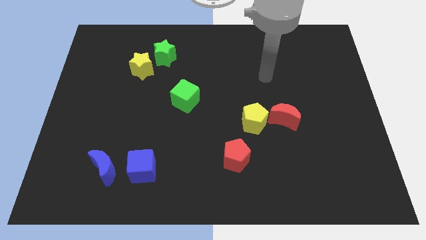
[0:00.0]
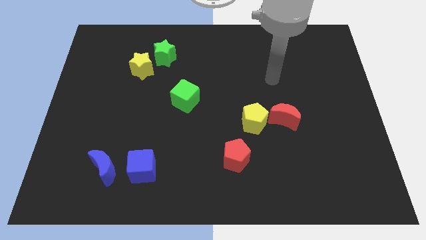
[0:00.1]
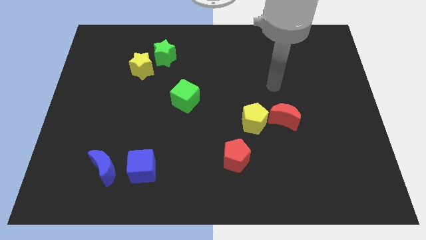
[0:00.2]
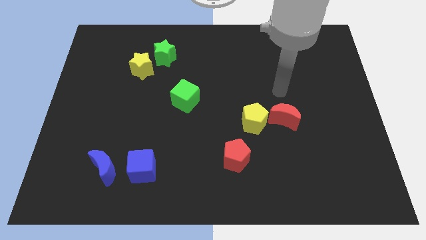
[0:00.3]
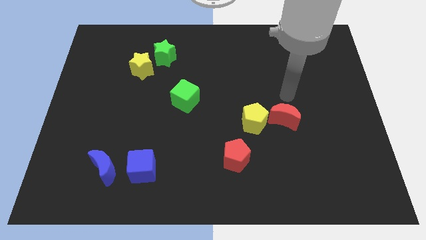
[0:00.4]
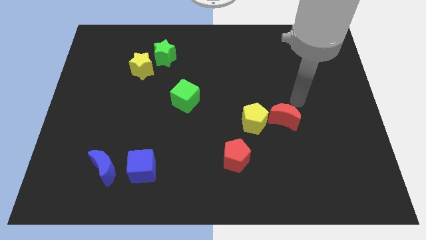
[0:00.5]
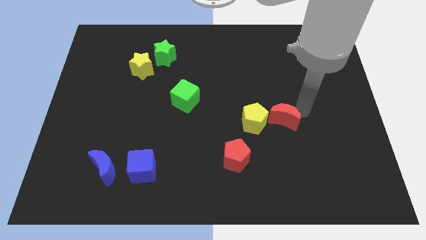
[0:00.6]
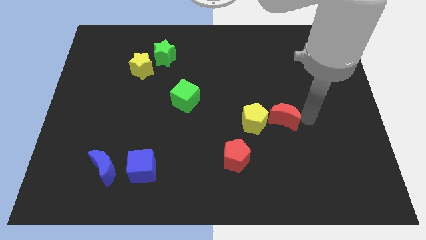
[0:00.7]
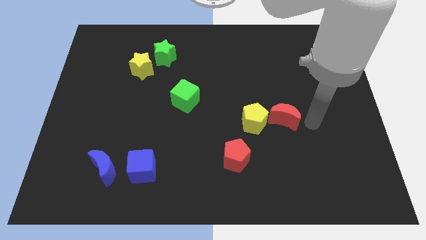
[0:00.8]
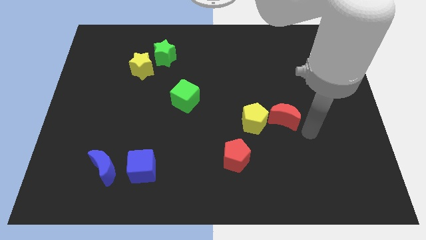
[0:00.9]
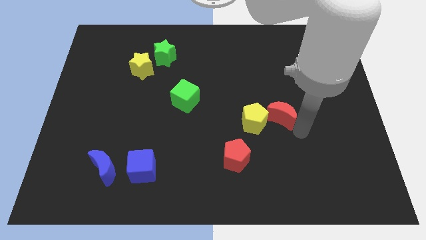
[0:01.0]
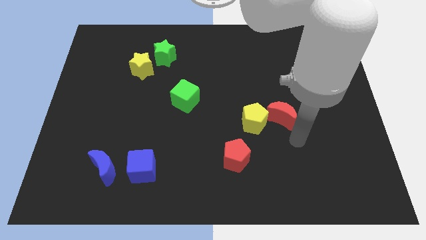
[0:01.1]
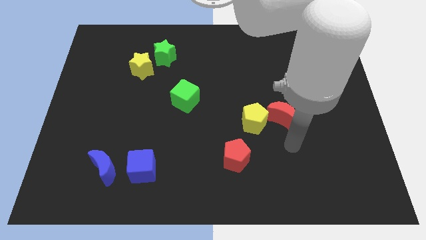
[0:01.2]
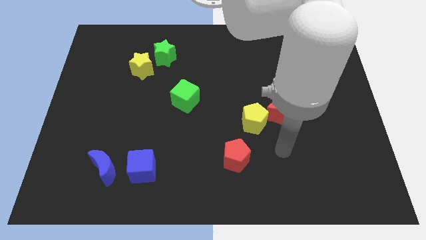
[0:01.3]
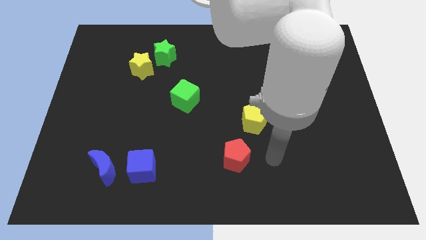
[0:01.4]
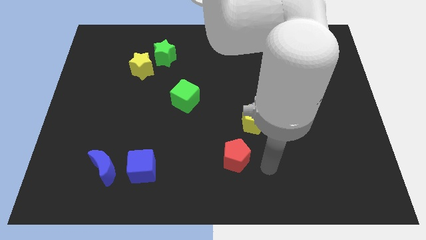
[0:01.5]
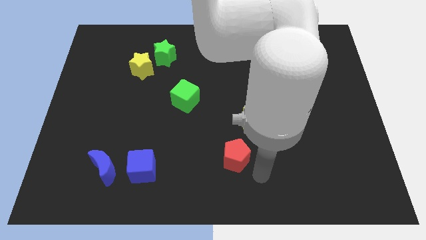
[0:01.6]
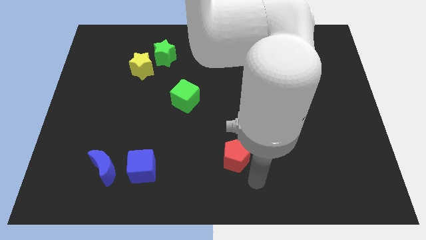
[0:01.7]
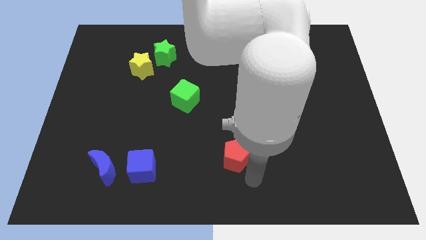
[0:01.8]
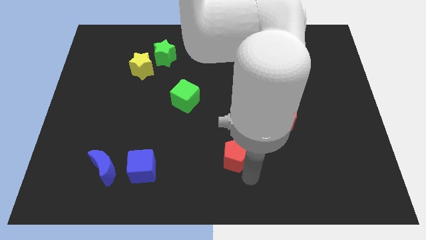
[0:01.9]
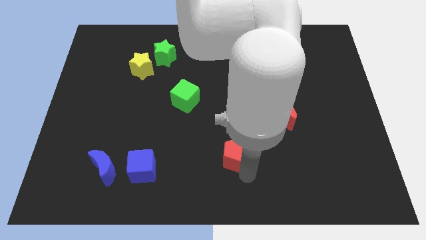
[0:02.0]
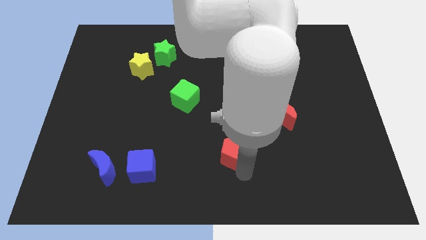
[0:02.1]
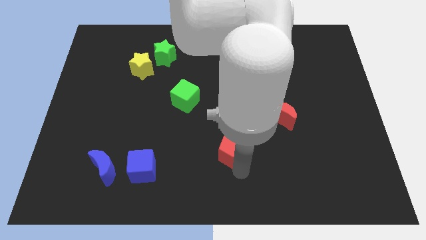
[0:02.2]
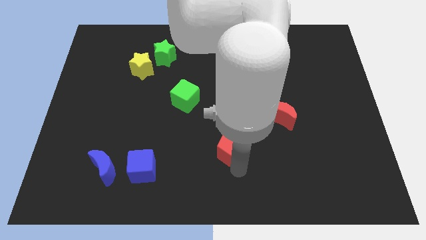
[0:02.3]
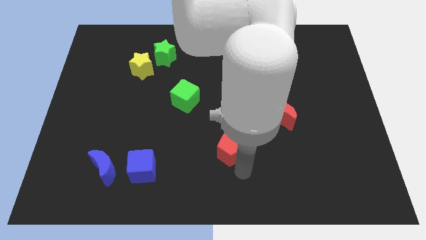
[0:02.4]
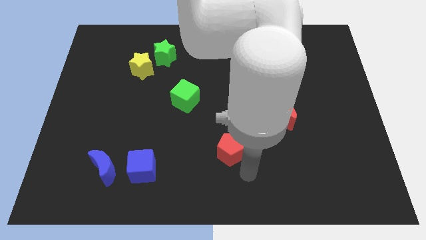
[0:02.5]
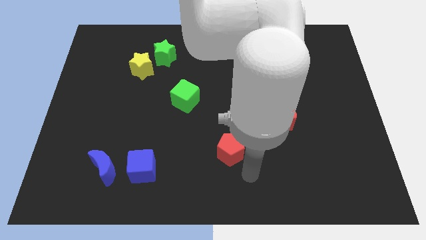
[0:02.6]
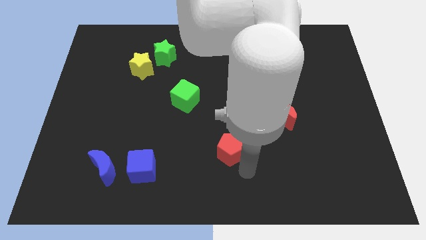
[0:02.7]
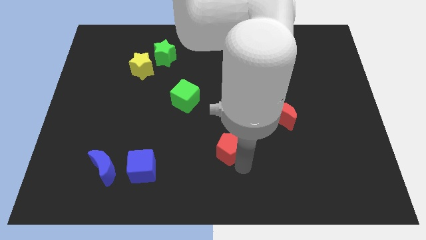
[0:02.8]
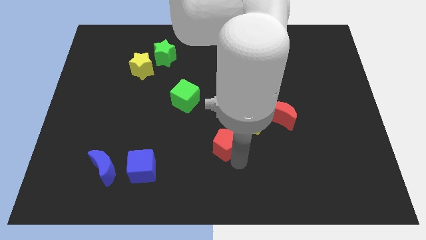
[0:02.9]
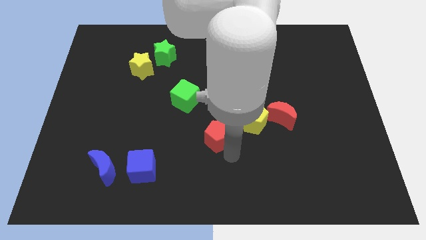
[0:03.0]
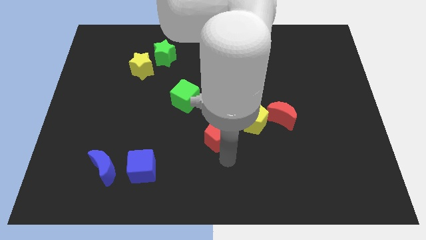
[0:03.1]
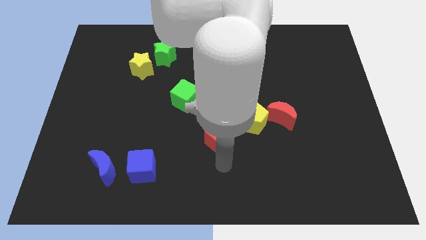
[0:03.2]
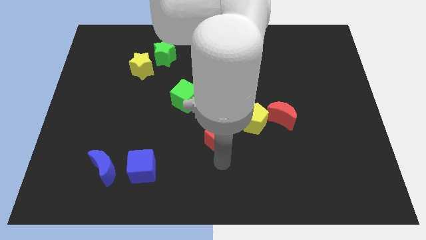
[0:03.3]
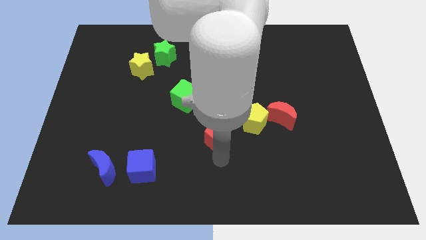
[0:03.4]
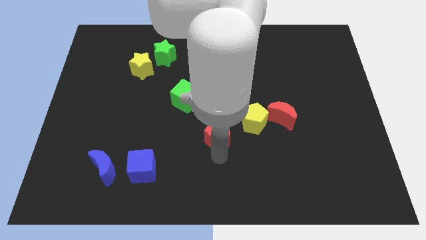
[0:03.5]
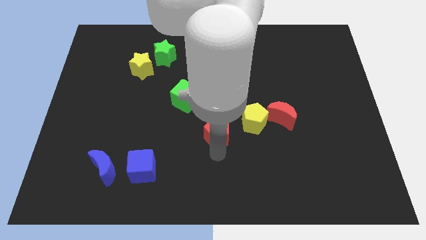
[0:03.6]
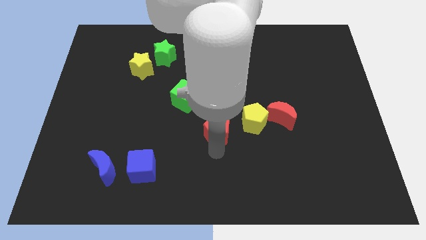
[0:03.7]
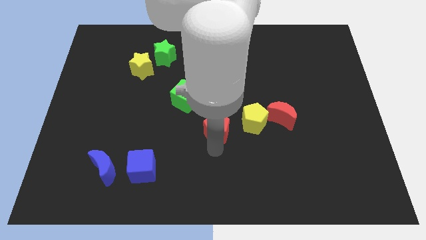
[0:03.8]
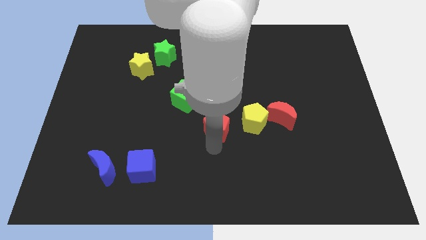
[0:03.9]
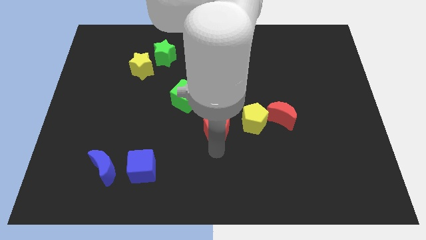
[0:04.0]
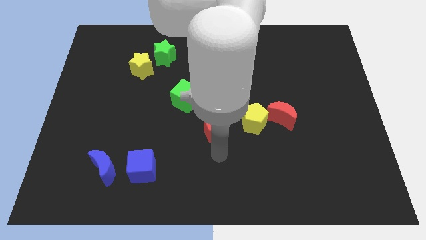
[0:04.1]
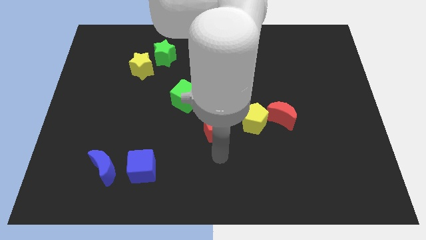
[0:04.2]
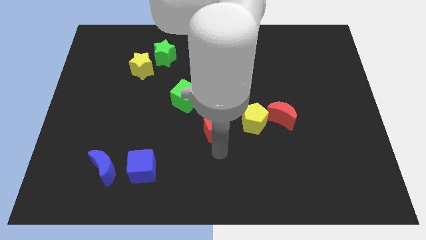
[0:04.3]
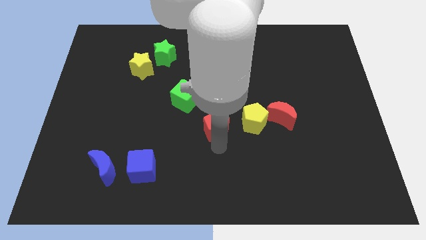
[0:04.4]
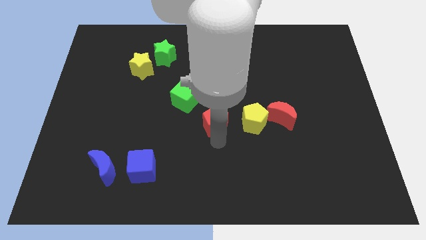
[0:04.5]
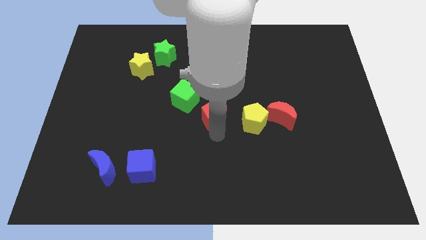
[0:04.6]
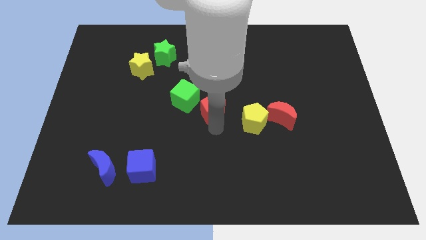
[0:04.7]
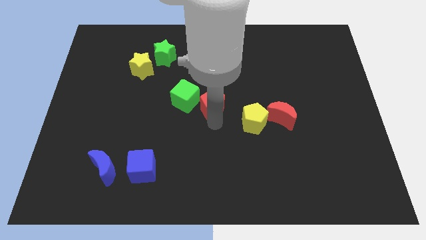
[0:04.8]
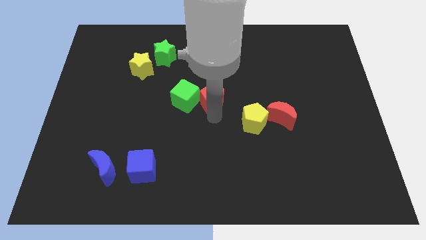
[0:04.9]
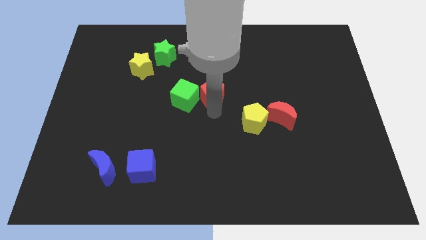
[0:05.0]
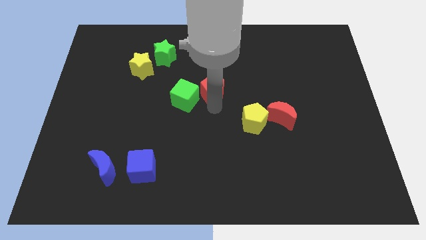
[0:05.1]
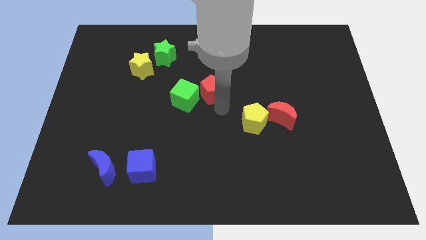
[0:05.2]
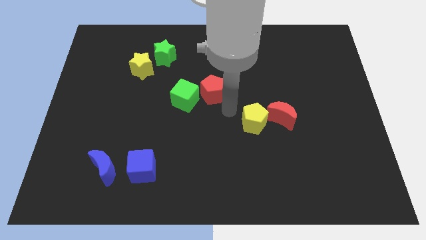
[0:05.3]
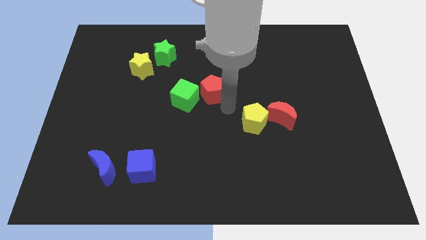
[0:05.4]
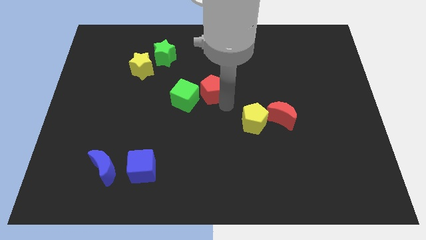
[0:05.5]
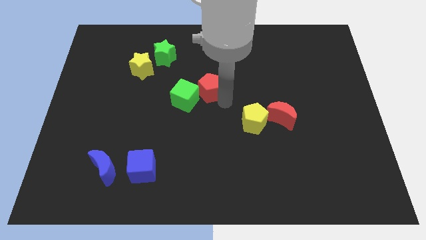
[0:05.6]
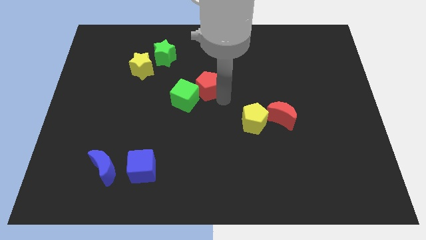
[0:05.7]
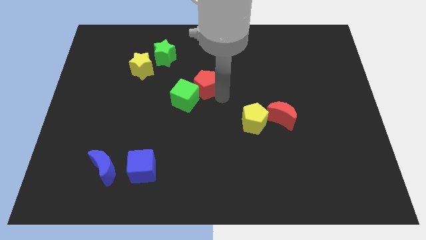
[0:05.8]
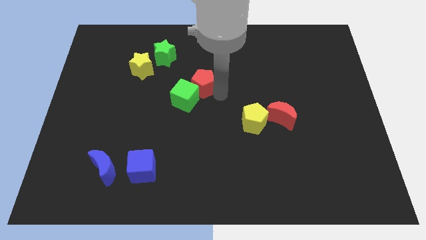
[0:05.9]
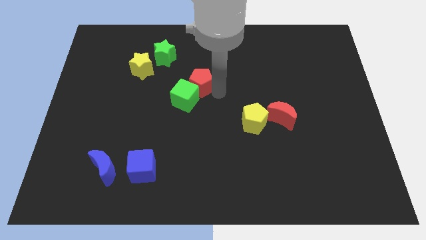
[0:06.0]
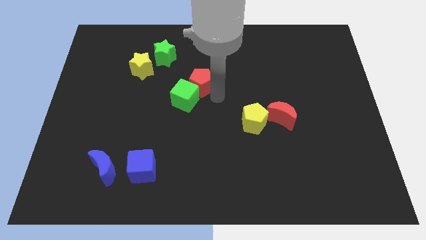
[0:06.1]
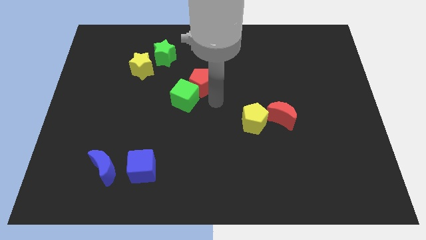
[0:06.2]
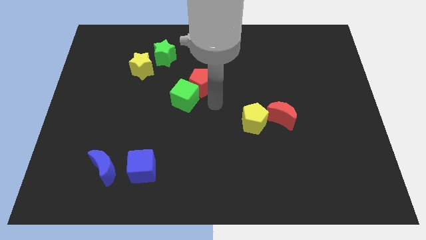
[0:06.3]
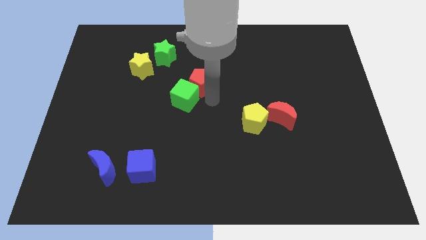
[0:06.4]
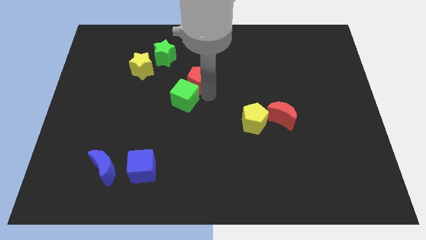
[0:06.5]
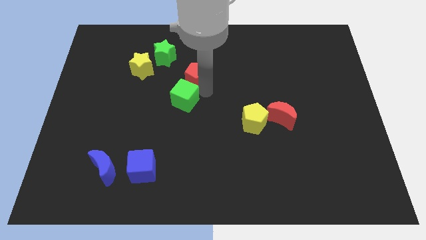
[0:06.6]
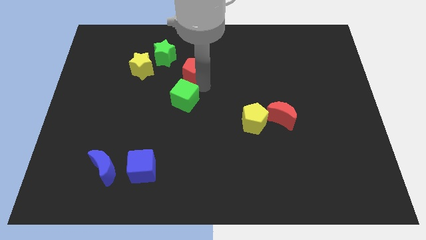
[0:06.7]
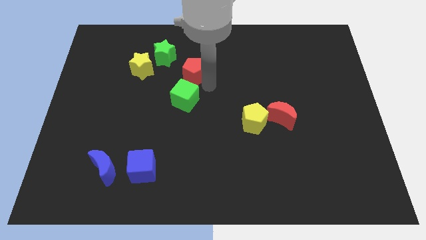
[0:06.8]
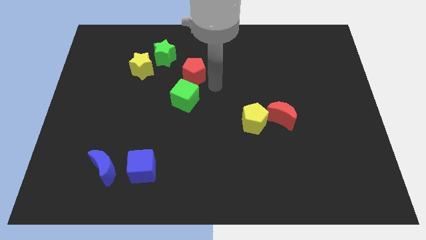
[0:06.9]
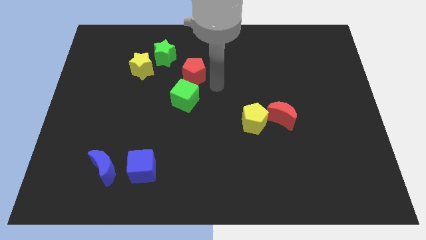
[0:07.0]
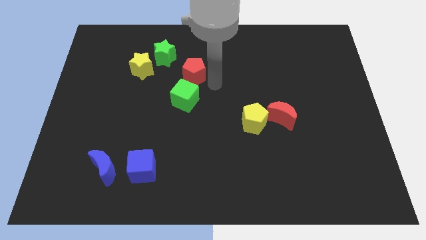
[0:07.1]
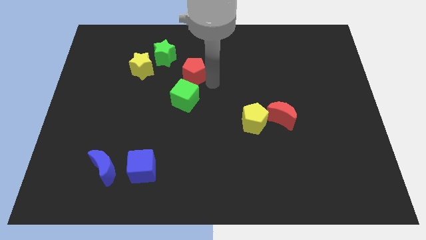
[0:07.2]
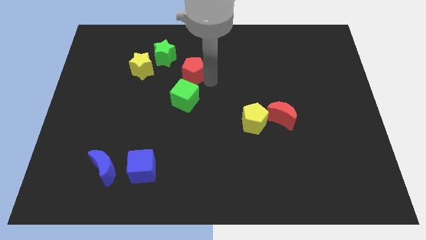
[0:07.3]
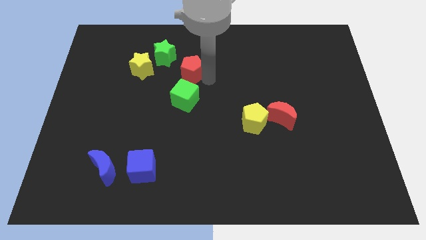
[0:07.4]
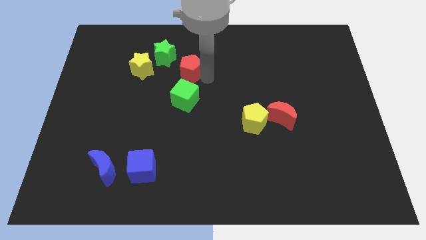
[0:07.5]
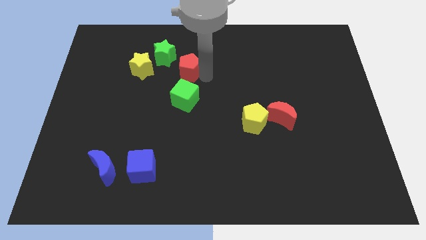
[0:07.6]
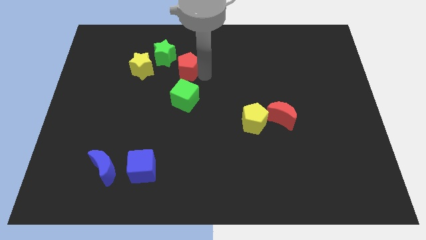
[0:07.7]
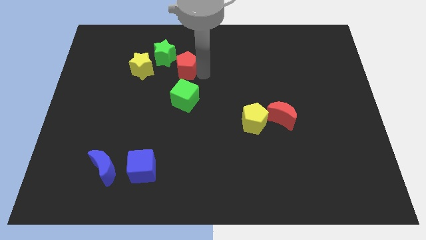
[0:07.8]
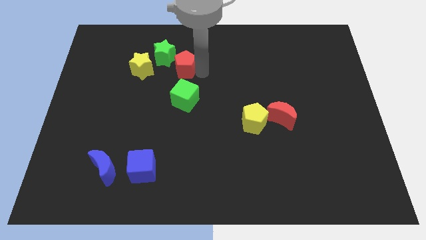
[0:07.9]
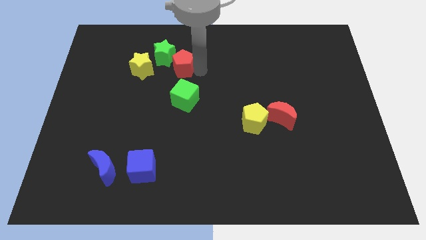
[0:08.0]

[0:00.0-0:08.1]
push the red pentagon close to the green star
